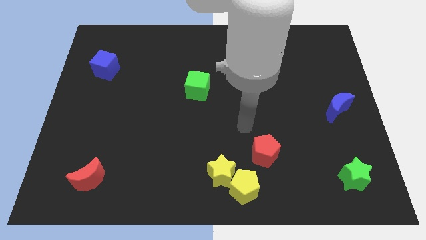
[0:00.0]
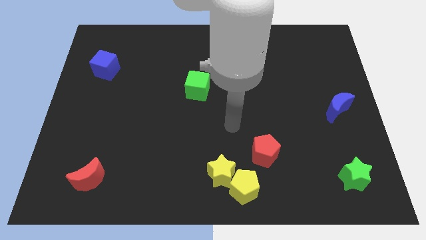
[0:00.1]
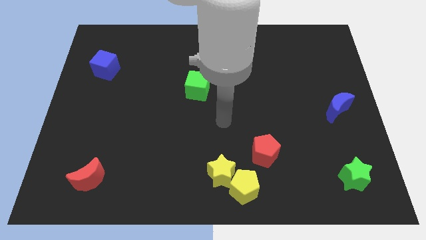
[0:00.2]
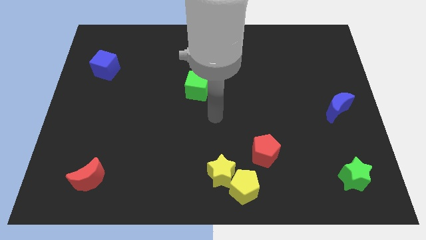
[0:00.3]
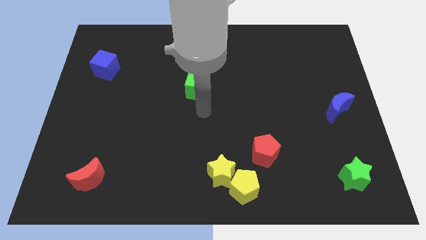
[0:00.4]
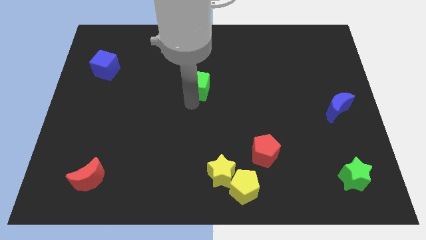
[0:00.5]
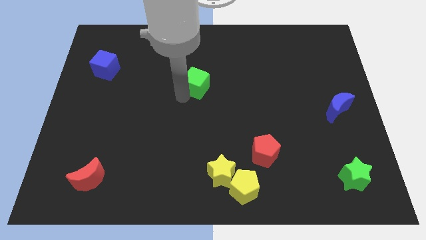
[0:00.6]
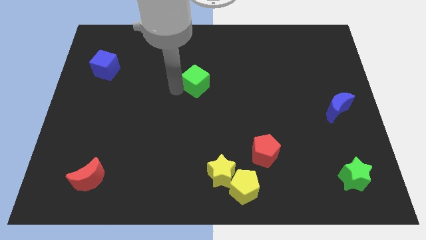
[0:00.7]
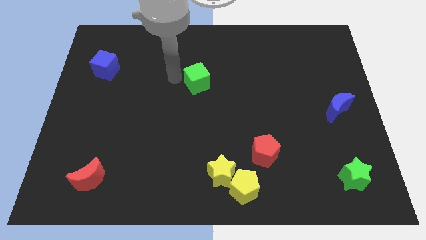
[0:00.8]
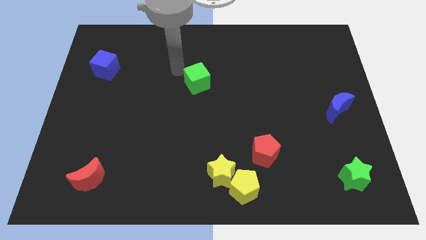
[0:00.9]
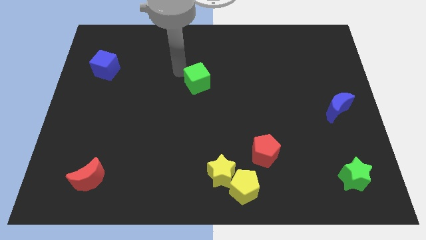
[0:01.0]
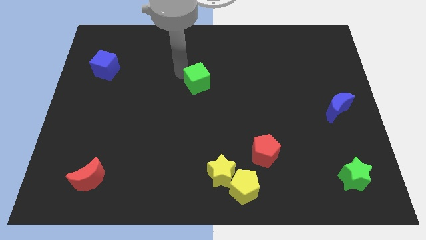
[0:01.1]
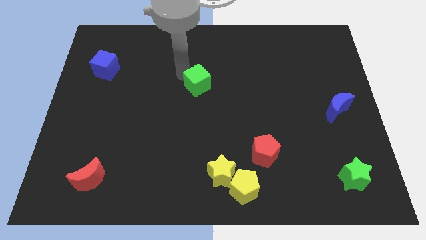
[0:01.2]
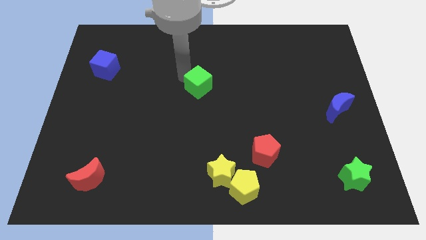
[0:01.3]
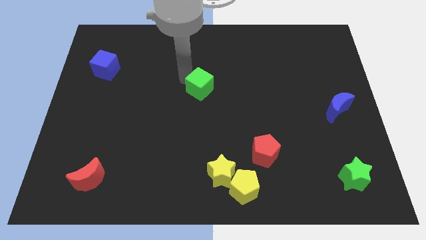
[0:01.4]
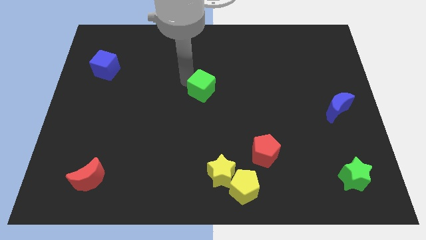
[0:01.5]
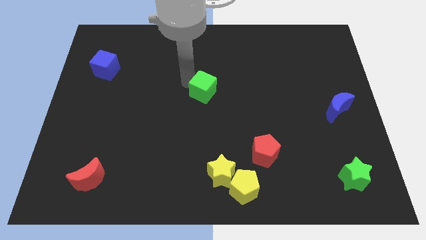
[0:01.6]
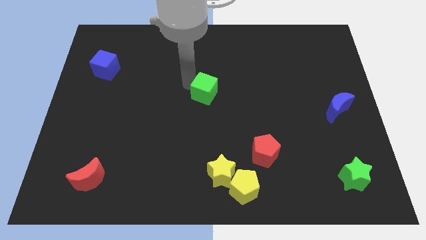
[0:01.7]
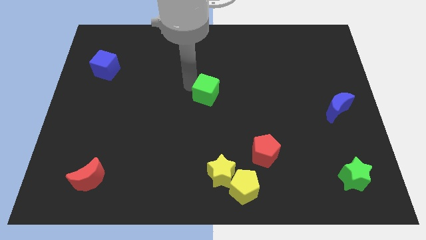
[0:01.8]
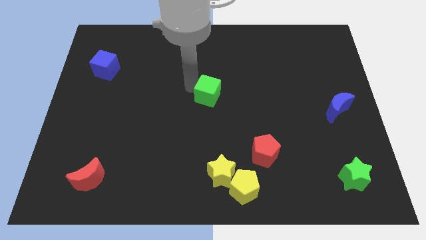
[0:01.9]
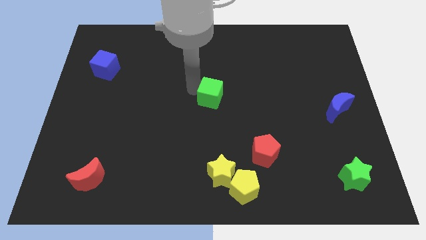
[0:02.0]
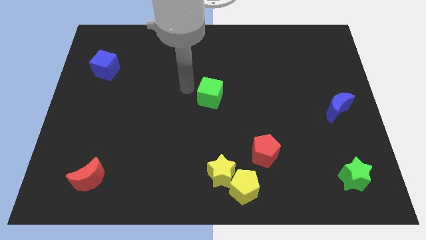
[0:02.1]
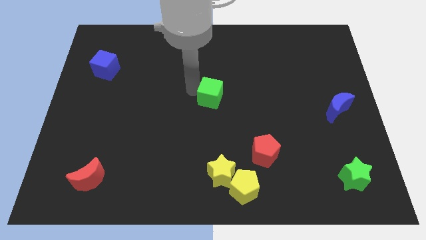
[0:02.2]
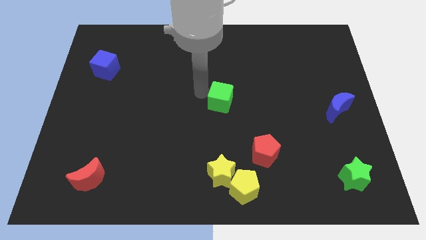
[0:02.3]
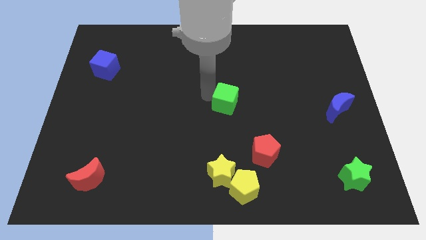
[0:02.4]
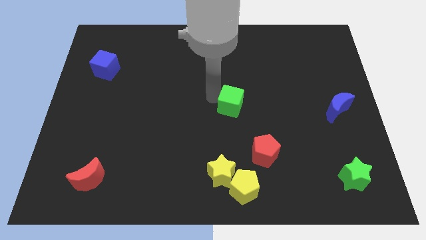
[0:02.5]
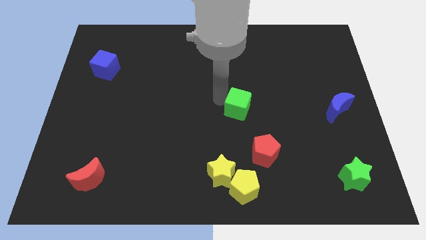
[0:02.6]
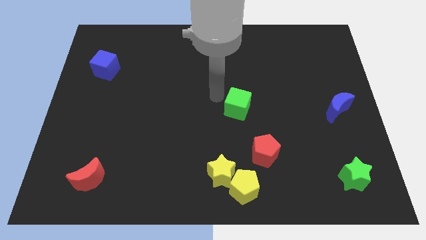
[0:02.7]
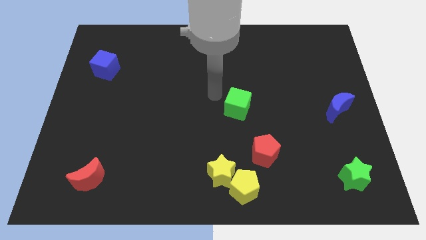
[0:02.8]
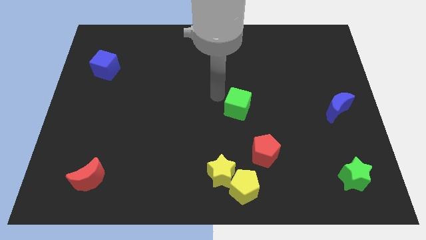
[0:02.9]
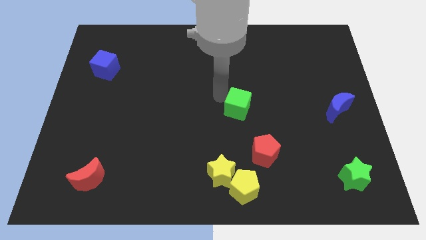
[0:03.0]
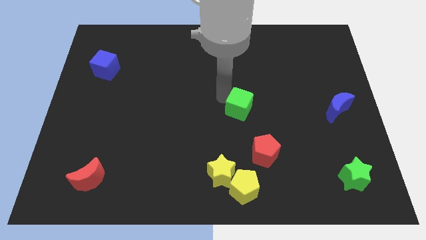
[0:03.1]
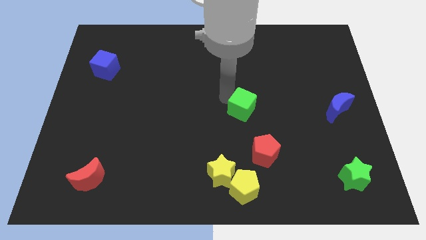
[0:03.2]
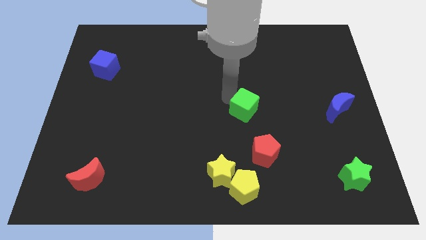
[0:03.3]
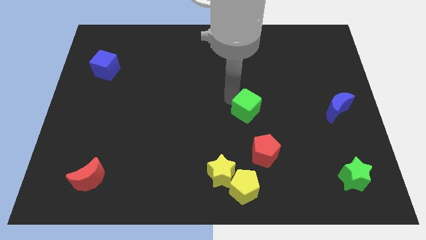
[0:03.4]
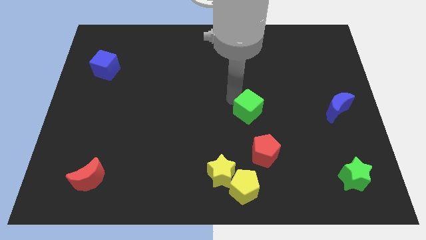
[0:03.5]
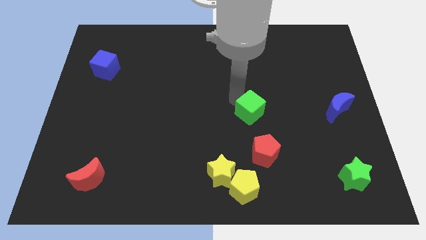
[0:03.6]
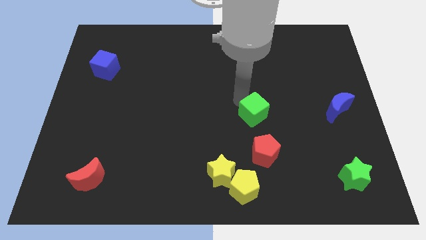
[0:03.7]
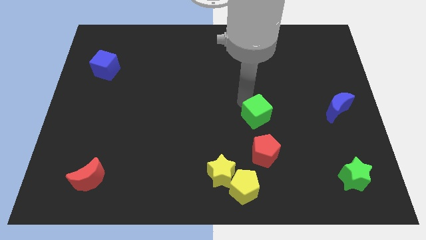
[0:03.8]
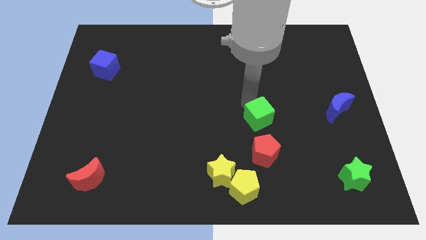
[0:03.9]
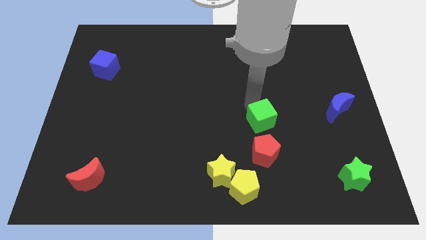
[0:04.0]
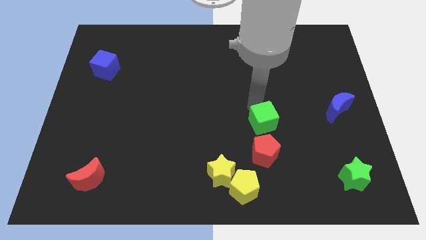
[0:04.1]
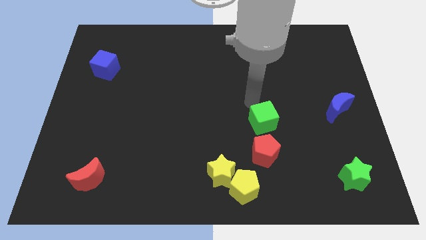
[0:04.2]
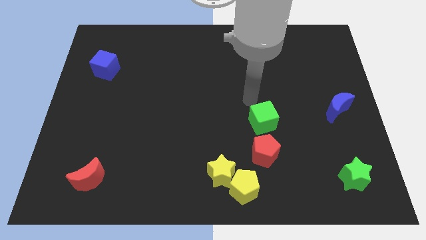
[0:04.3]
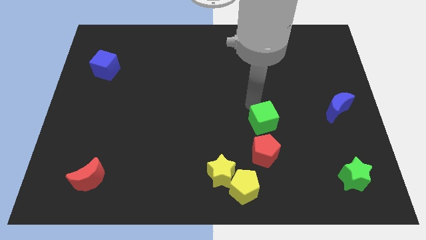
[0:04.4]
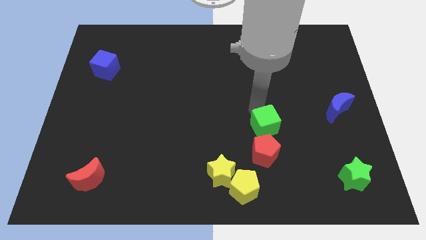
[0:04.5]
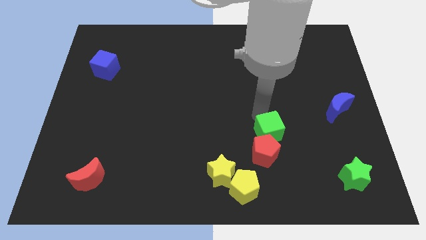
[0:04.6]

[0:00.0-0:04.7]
move the green cube down and right diagonally

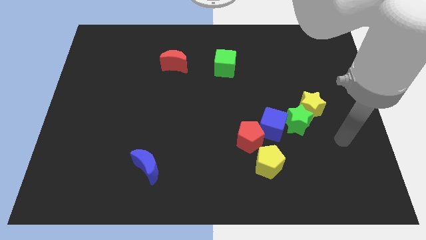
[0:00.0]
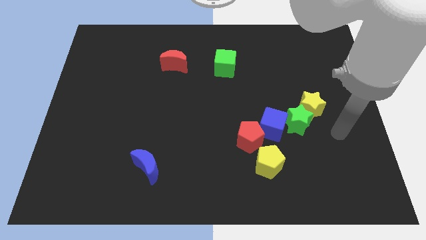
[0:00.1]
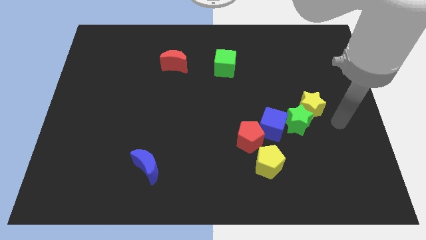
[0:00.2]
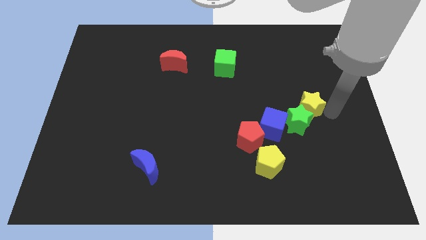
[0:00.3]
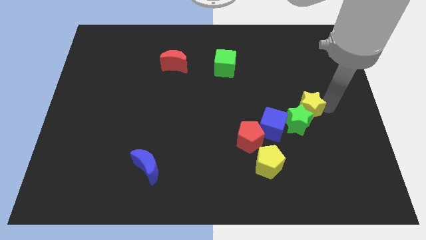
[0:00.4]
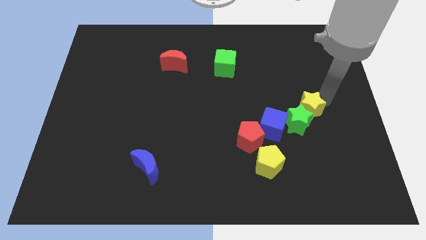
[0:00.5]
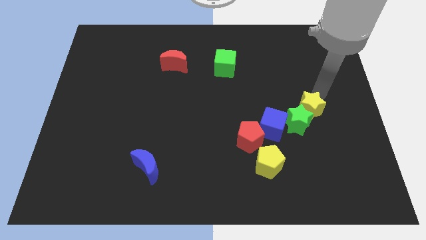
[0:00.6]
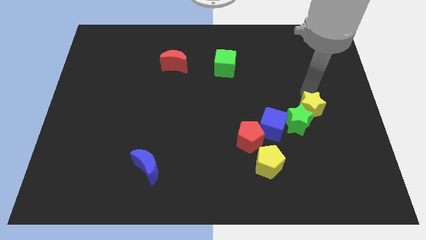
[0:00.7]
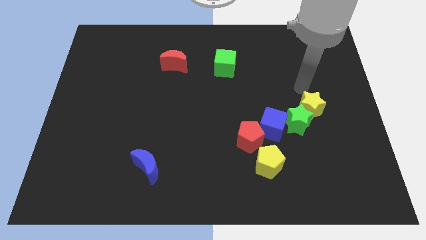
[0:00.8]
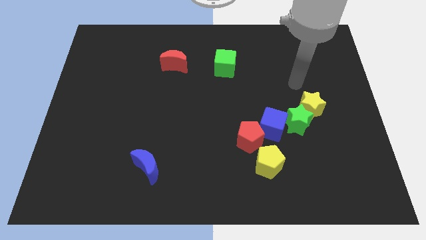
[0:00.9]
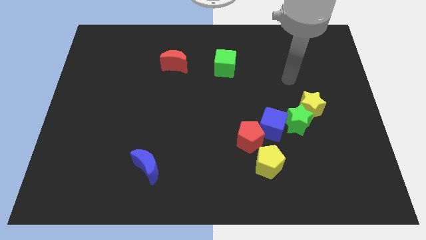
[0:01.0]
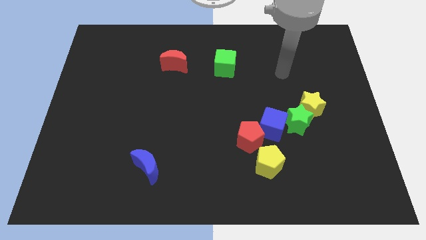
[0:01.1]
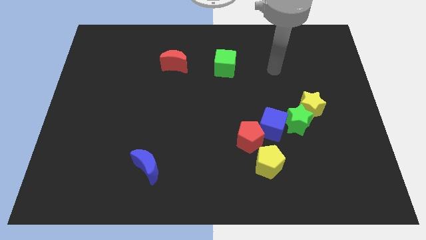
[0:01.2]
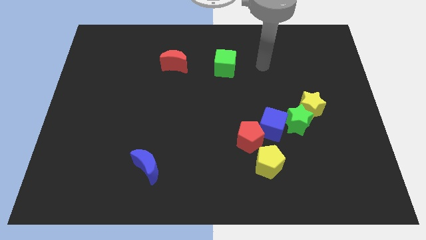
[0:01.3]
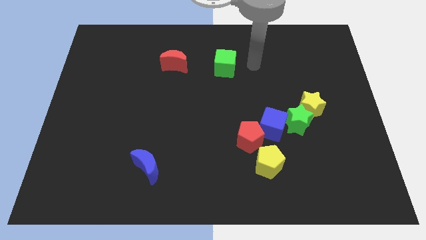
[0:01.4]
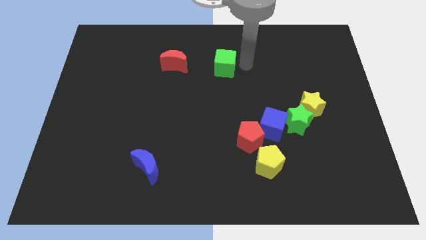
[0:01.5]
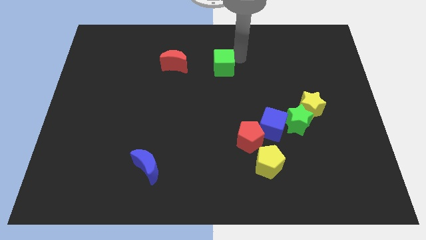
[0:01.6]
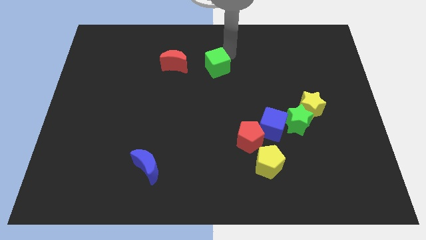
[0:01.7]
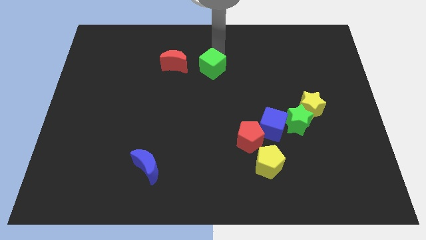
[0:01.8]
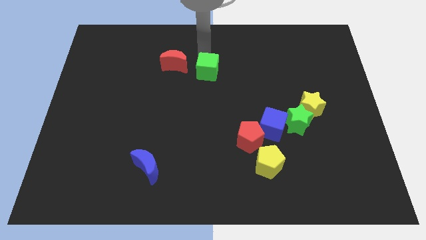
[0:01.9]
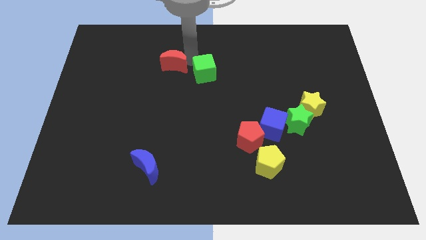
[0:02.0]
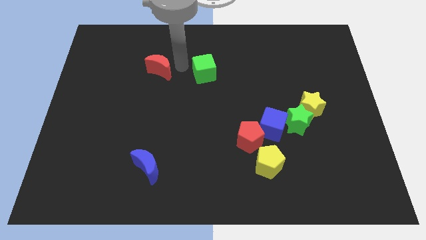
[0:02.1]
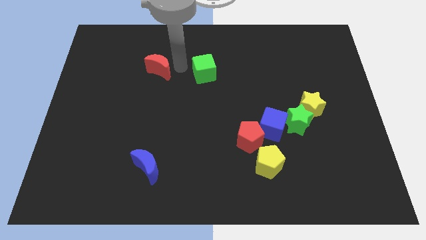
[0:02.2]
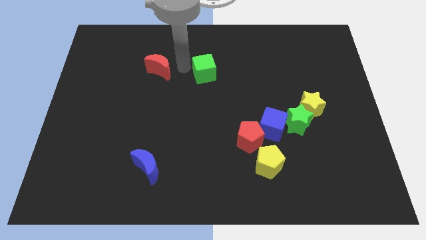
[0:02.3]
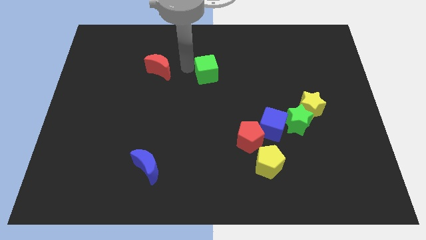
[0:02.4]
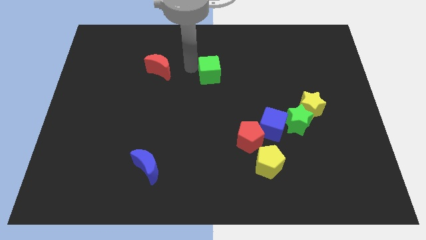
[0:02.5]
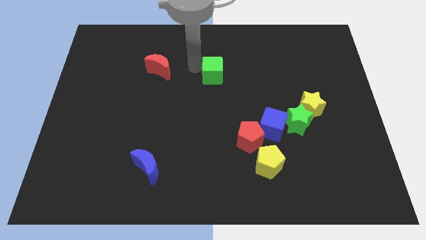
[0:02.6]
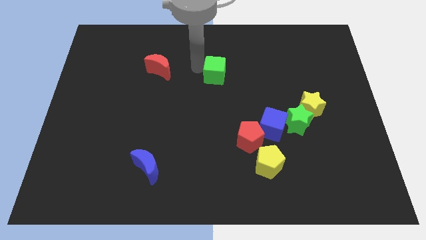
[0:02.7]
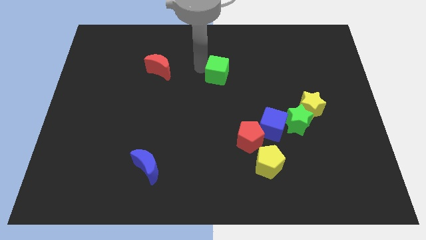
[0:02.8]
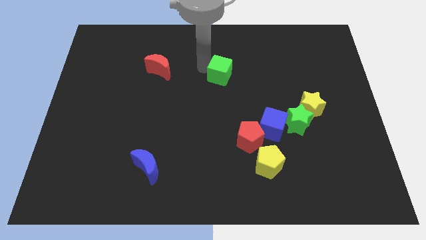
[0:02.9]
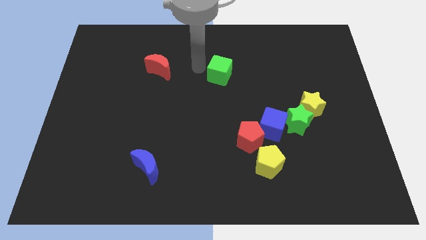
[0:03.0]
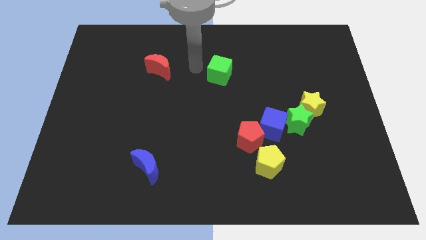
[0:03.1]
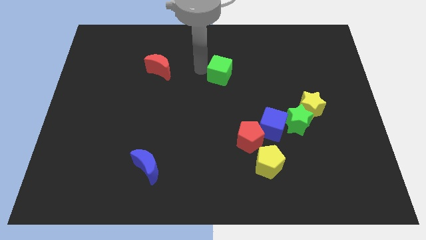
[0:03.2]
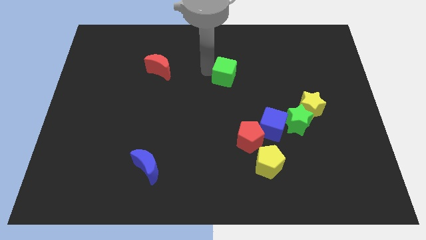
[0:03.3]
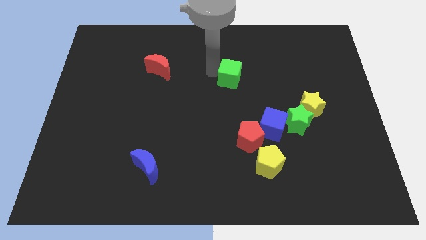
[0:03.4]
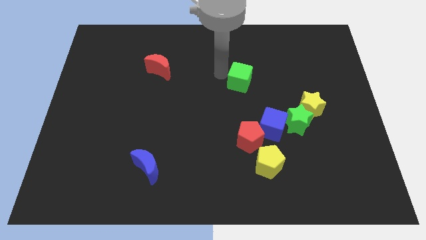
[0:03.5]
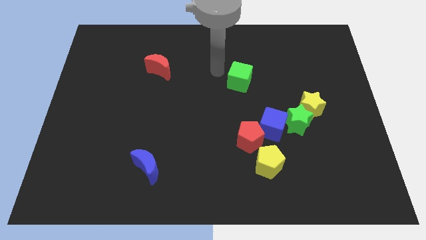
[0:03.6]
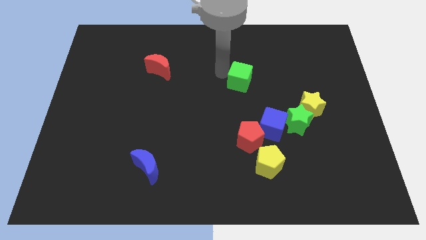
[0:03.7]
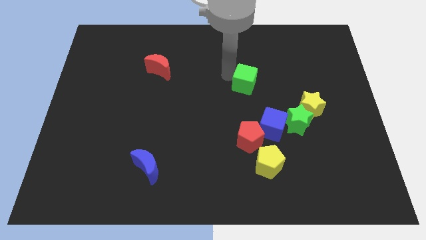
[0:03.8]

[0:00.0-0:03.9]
move the green cube downwards and right diagonally a little
